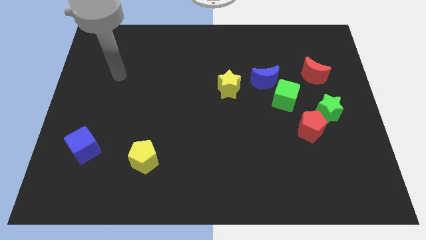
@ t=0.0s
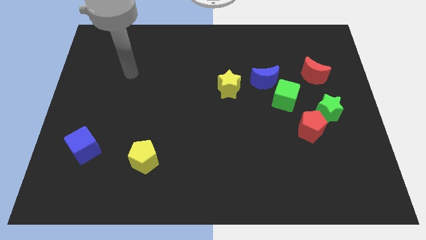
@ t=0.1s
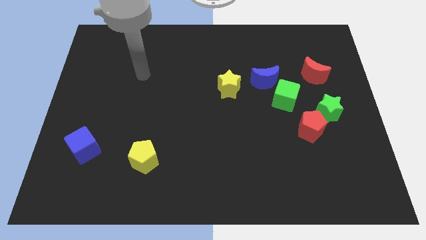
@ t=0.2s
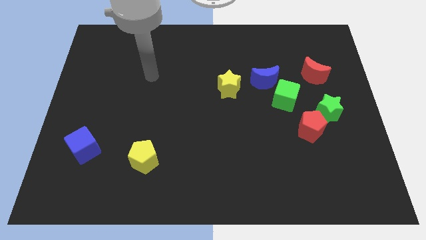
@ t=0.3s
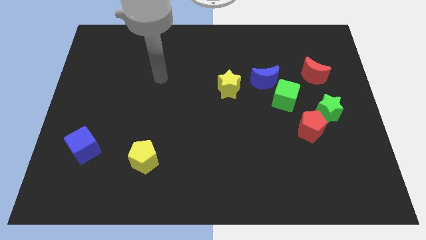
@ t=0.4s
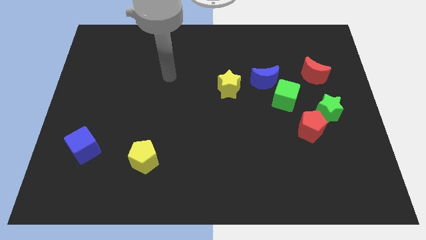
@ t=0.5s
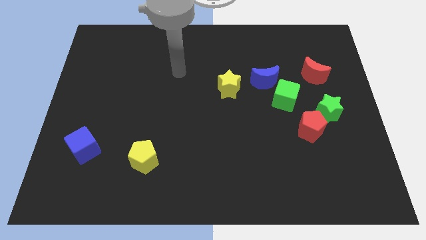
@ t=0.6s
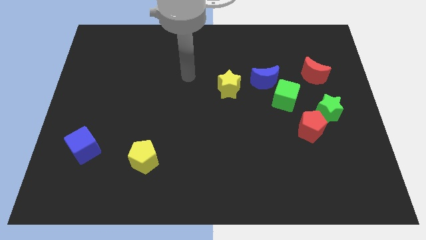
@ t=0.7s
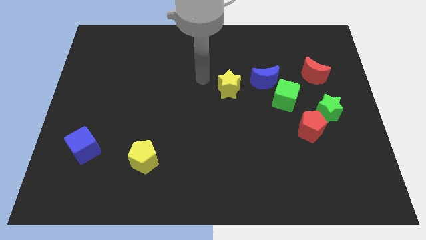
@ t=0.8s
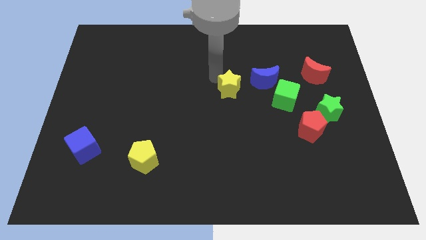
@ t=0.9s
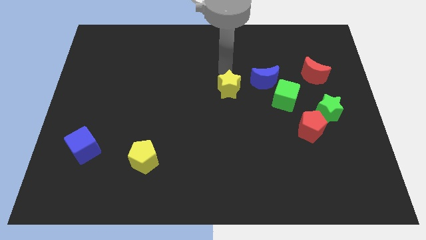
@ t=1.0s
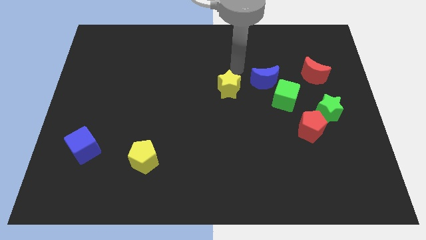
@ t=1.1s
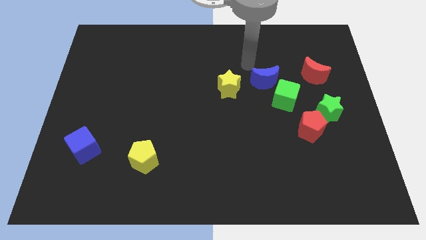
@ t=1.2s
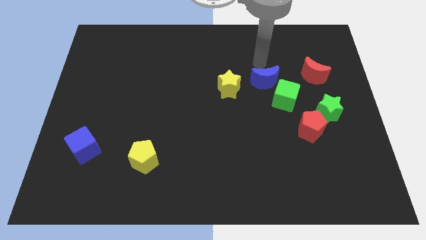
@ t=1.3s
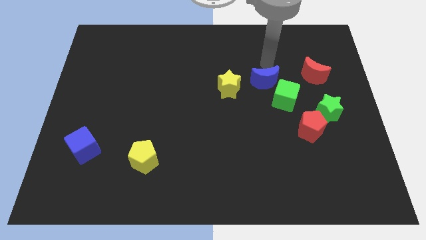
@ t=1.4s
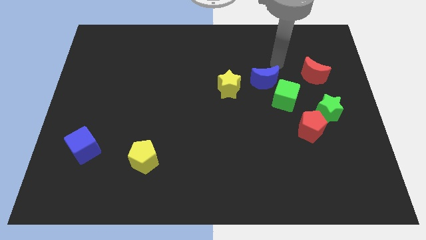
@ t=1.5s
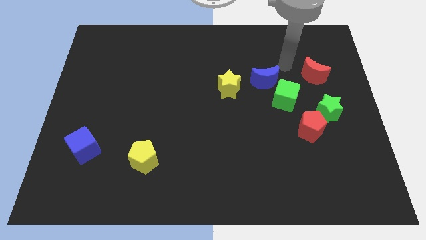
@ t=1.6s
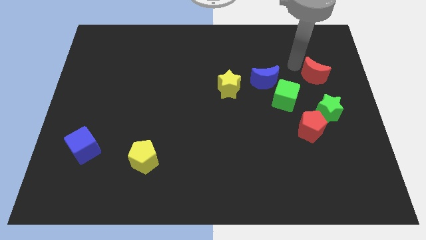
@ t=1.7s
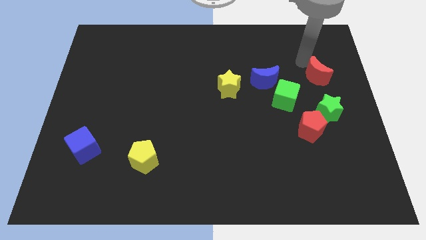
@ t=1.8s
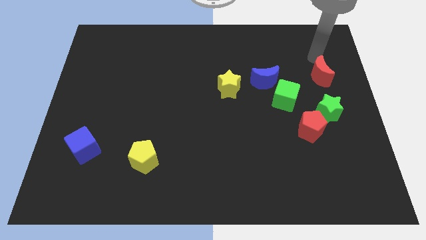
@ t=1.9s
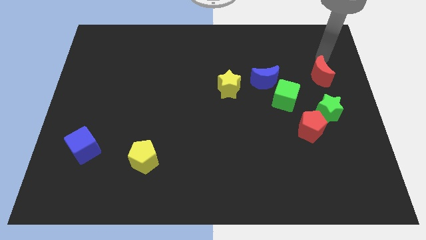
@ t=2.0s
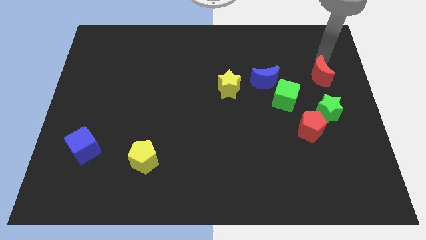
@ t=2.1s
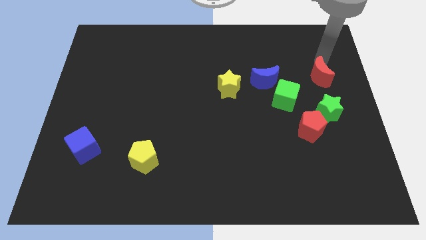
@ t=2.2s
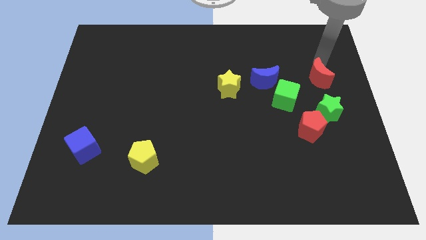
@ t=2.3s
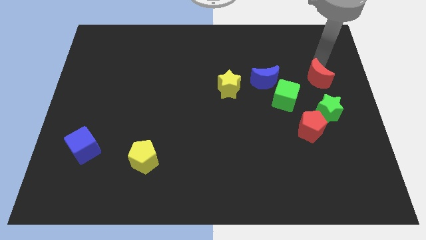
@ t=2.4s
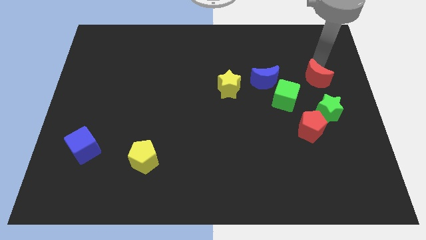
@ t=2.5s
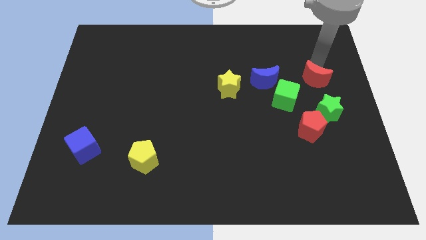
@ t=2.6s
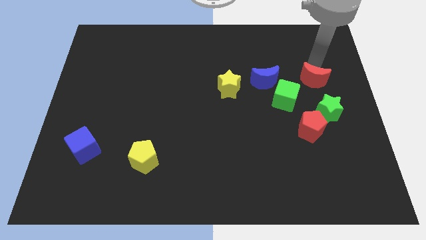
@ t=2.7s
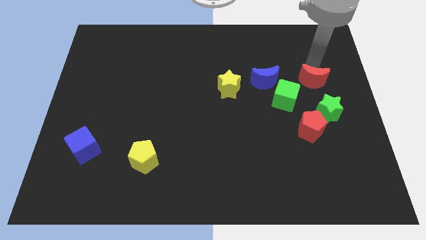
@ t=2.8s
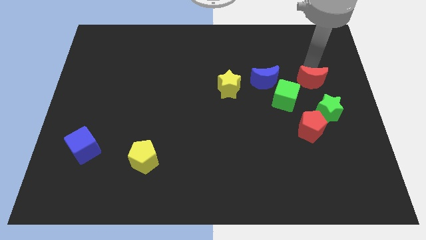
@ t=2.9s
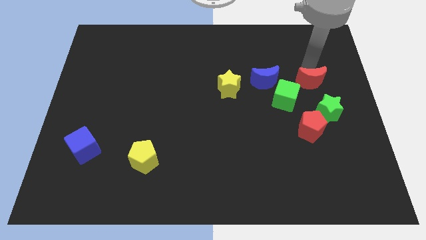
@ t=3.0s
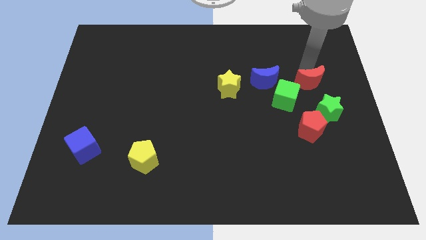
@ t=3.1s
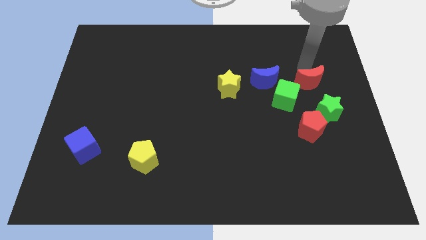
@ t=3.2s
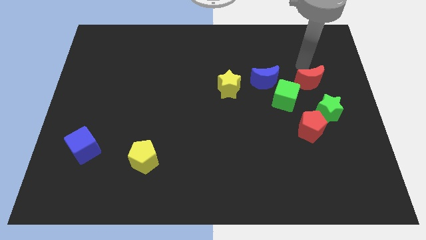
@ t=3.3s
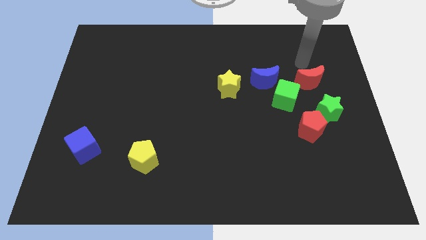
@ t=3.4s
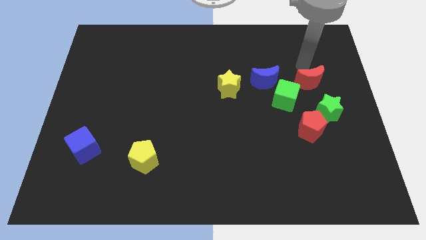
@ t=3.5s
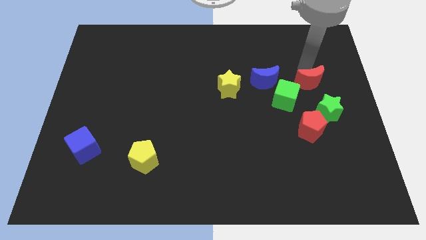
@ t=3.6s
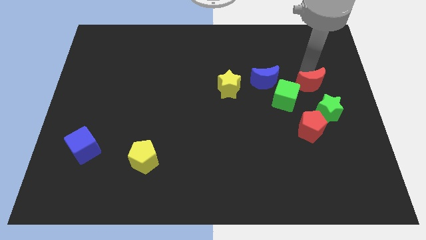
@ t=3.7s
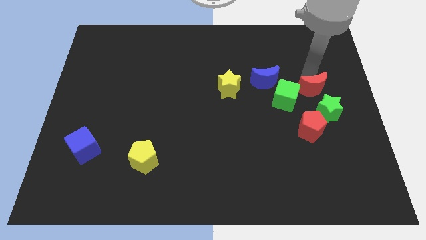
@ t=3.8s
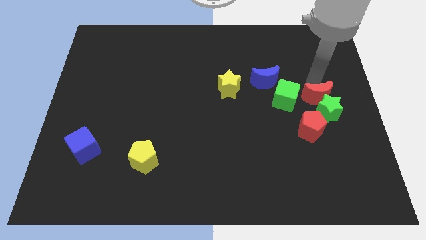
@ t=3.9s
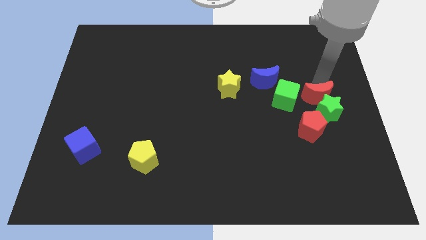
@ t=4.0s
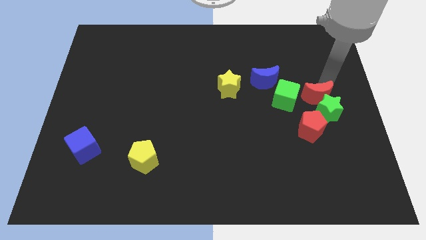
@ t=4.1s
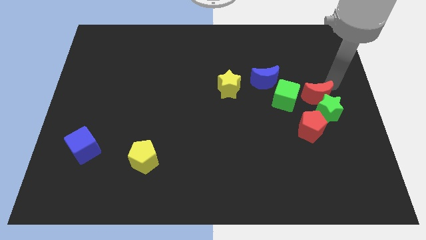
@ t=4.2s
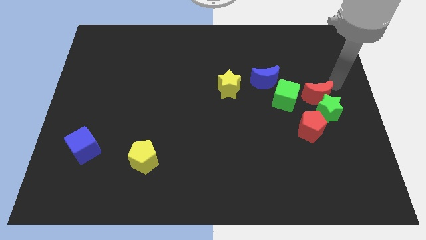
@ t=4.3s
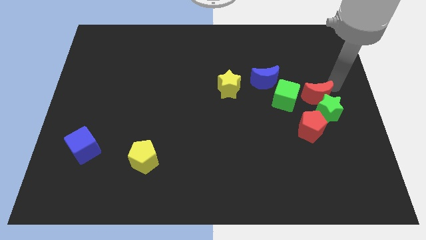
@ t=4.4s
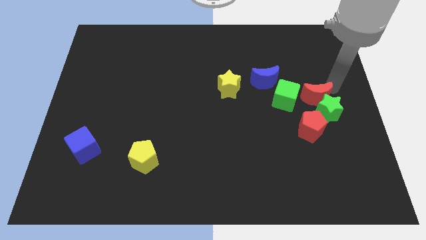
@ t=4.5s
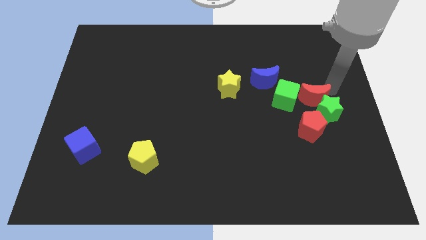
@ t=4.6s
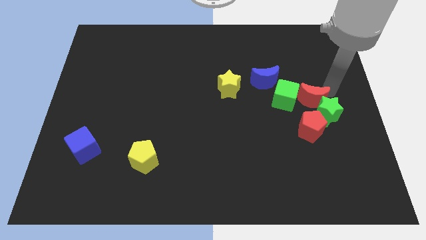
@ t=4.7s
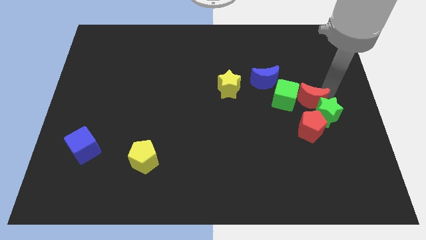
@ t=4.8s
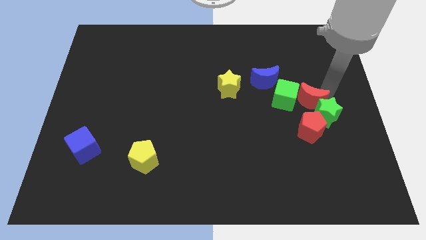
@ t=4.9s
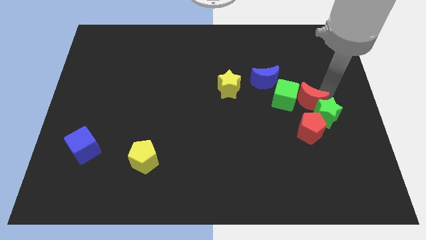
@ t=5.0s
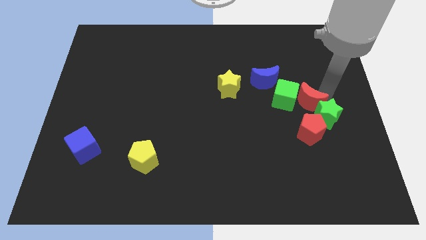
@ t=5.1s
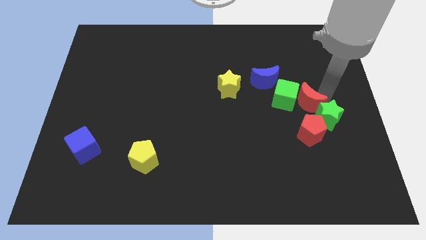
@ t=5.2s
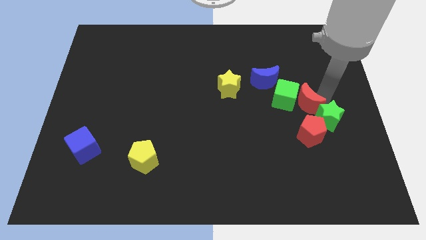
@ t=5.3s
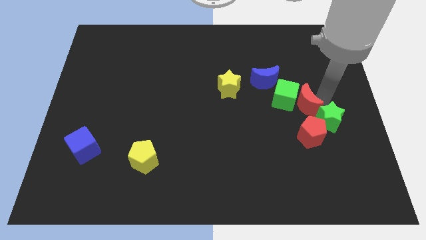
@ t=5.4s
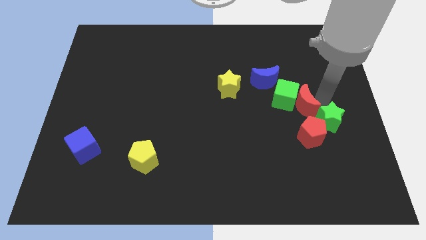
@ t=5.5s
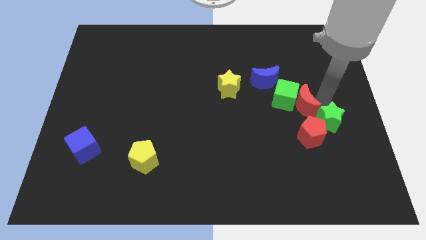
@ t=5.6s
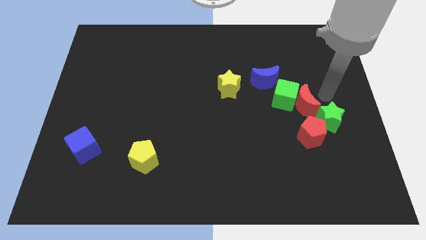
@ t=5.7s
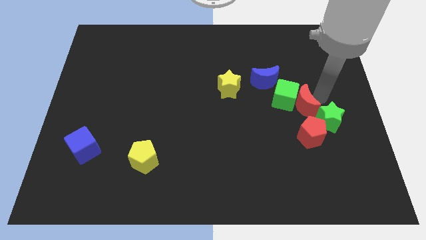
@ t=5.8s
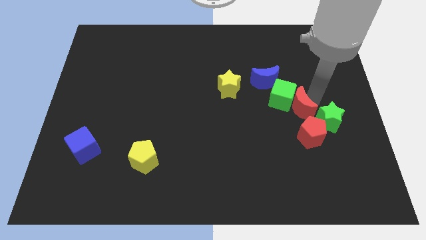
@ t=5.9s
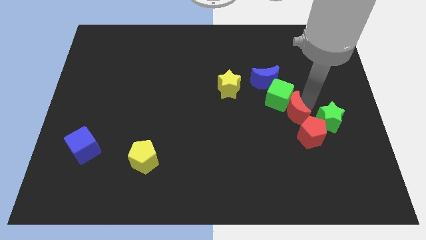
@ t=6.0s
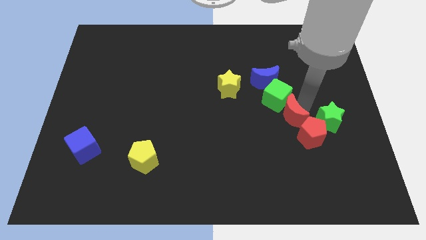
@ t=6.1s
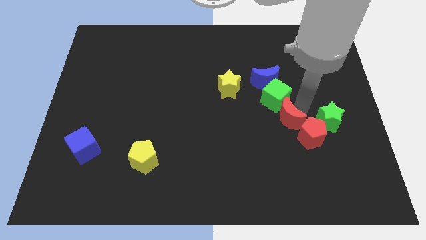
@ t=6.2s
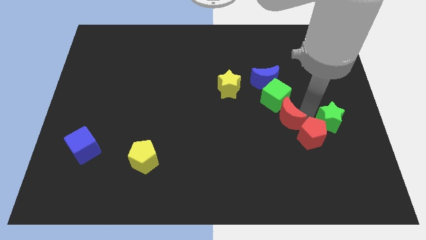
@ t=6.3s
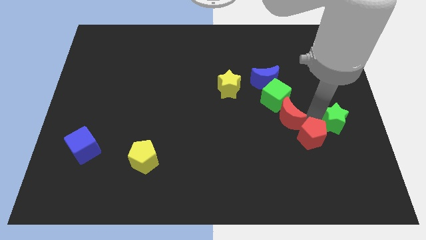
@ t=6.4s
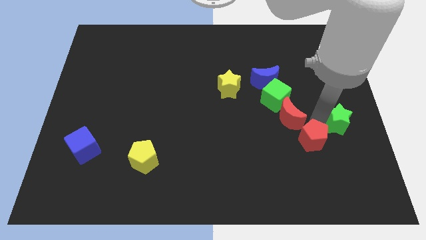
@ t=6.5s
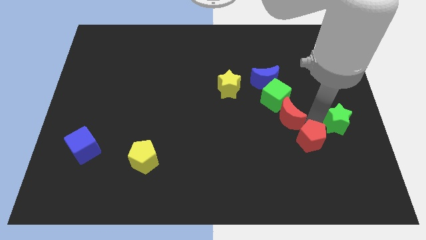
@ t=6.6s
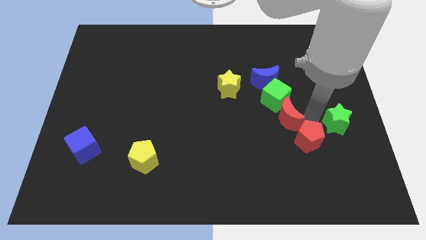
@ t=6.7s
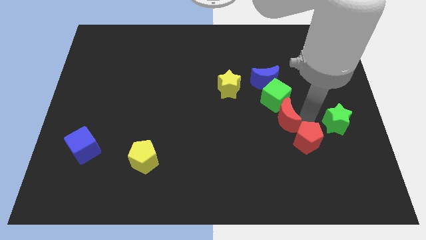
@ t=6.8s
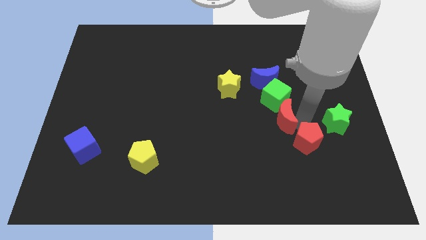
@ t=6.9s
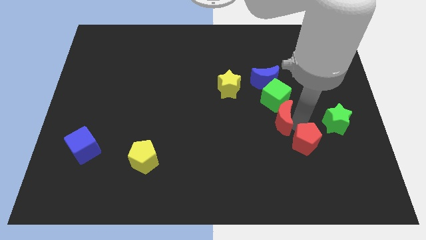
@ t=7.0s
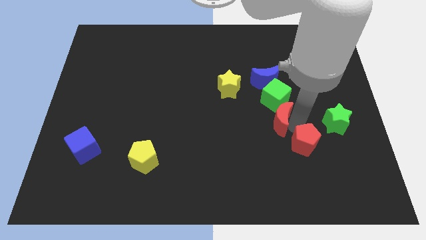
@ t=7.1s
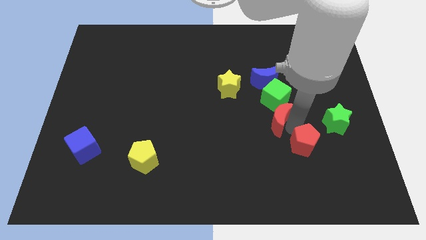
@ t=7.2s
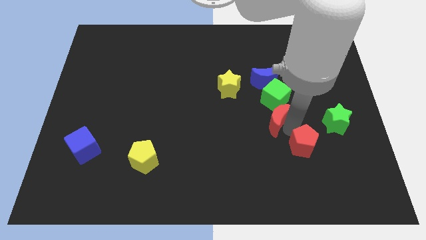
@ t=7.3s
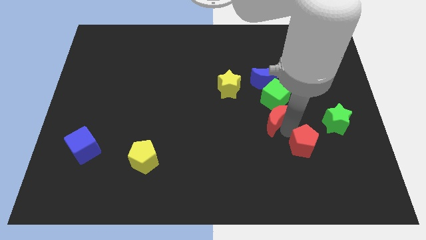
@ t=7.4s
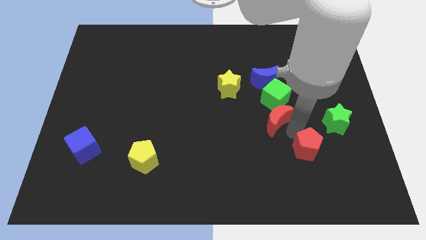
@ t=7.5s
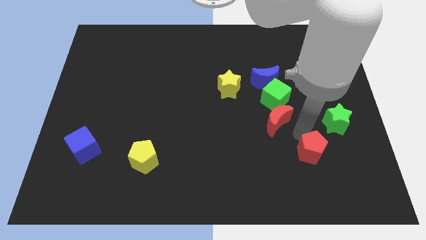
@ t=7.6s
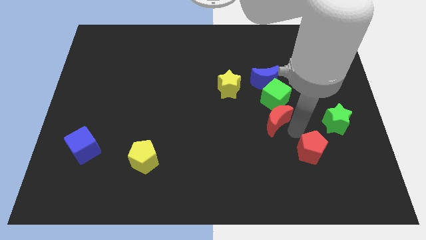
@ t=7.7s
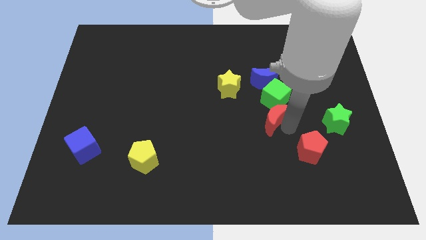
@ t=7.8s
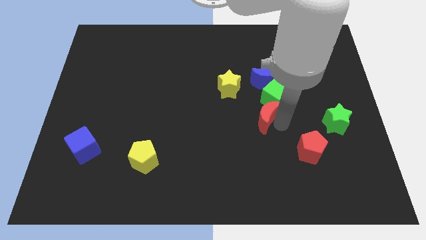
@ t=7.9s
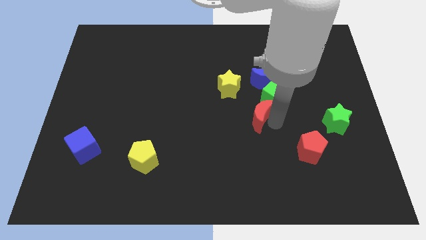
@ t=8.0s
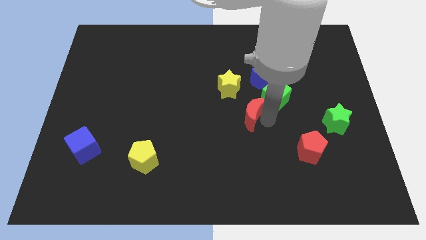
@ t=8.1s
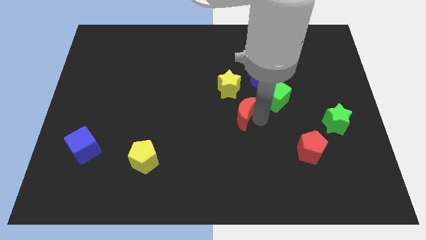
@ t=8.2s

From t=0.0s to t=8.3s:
move the red moon just left of the green cube
